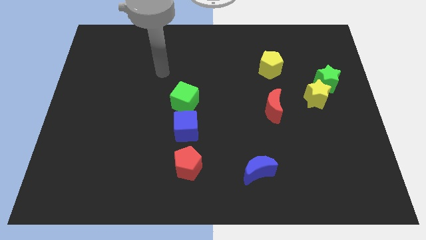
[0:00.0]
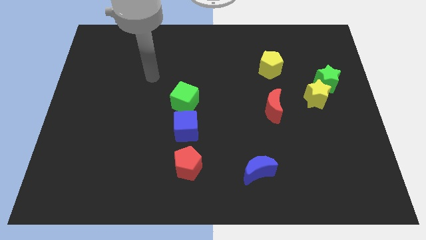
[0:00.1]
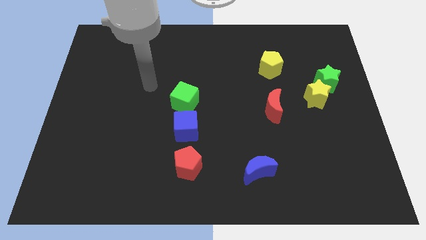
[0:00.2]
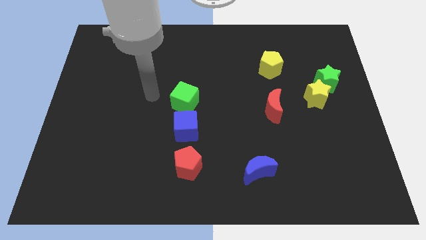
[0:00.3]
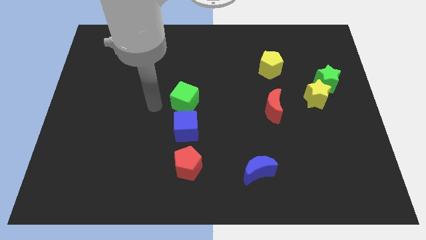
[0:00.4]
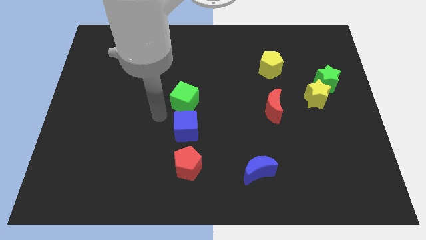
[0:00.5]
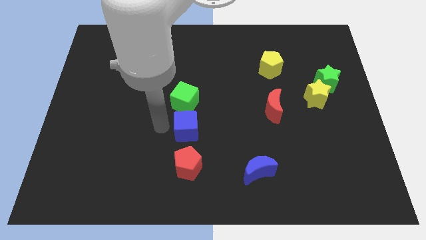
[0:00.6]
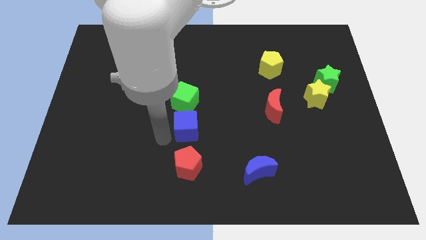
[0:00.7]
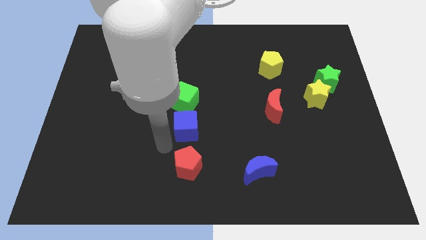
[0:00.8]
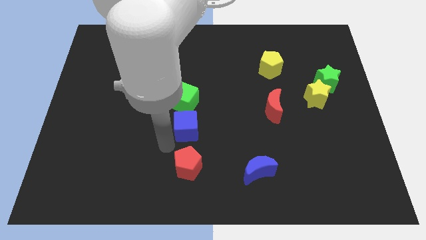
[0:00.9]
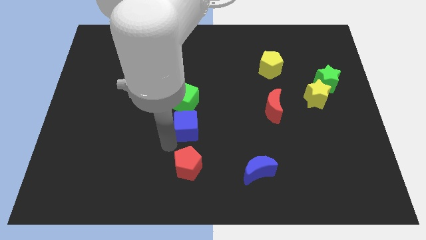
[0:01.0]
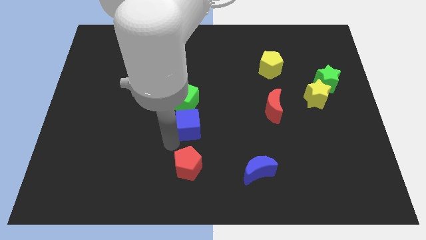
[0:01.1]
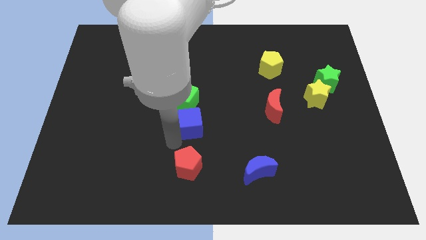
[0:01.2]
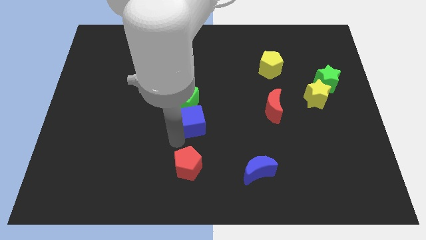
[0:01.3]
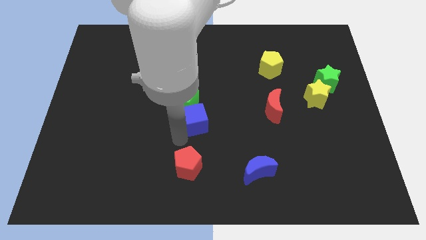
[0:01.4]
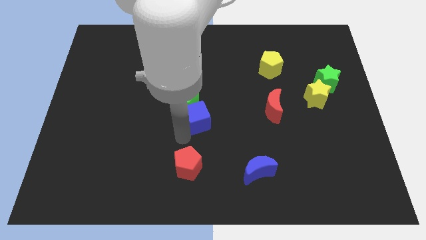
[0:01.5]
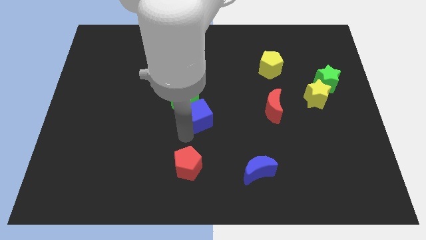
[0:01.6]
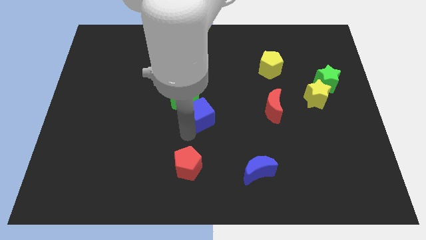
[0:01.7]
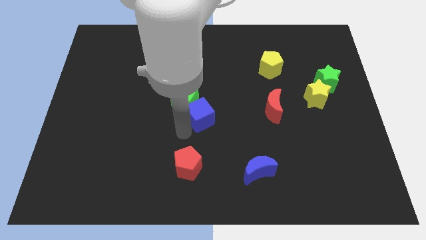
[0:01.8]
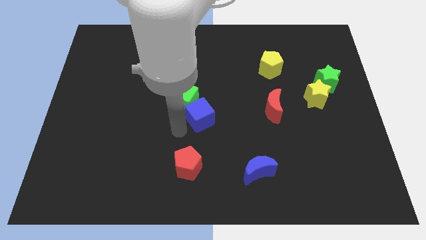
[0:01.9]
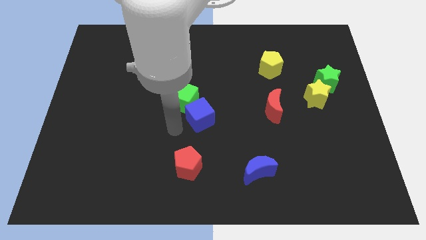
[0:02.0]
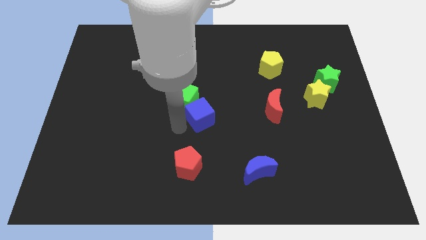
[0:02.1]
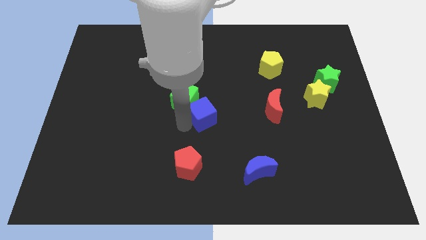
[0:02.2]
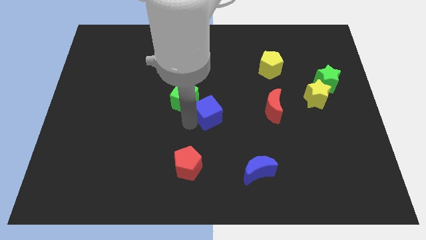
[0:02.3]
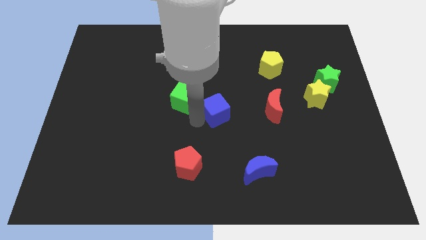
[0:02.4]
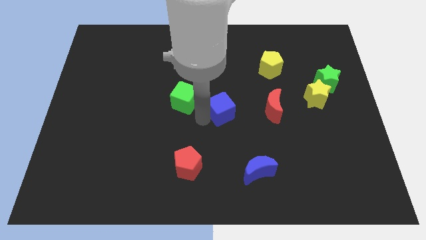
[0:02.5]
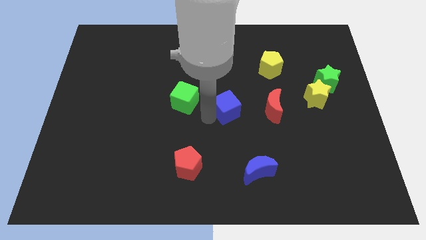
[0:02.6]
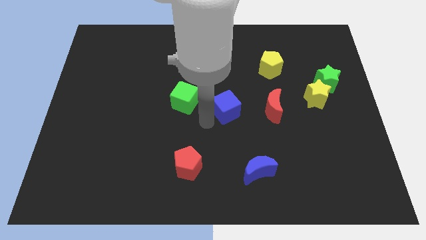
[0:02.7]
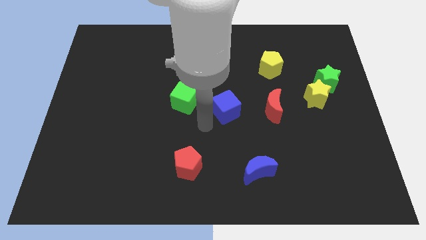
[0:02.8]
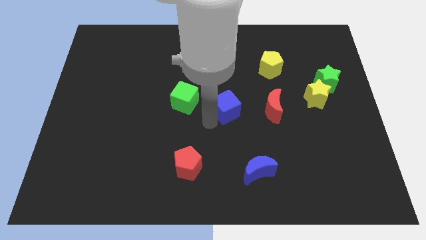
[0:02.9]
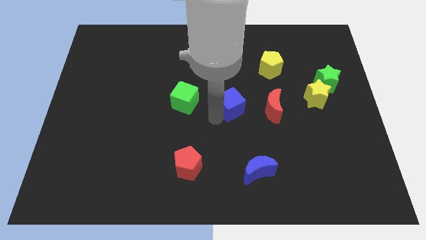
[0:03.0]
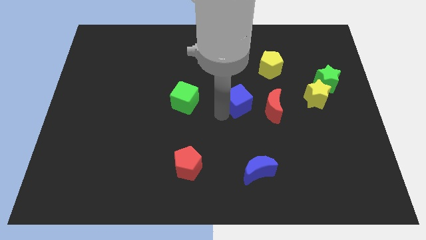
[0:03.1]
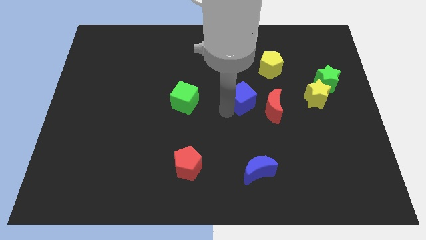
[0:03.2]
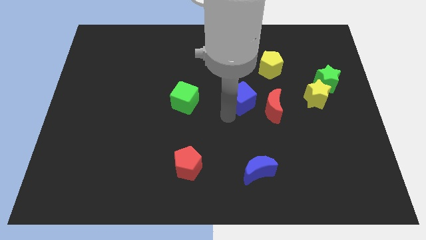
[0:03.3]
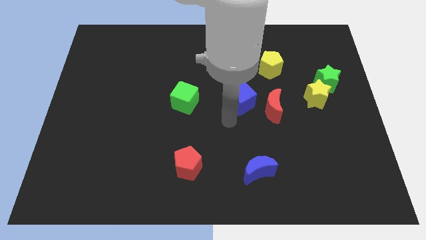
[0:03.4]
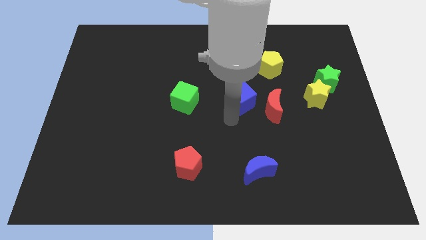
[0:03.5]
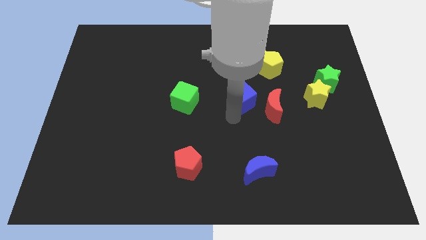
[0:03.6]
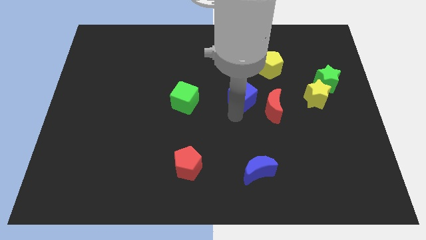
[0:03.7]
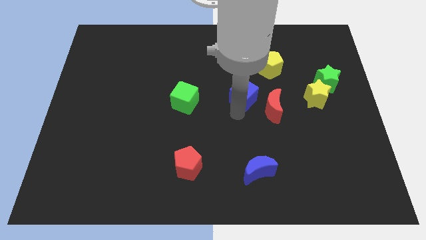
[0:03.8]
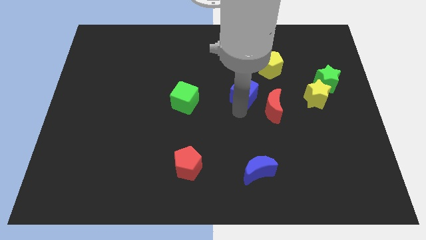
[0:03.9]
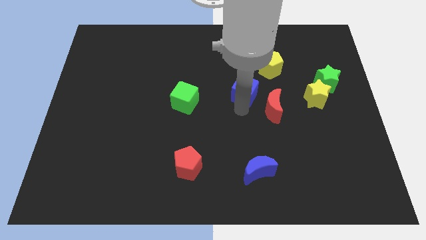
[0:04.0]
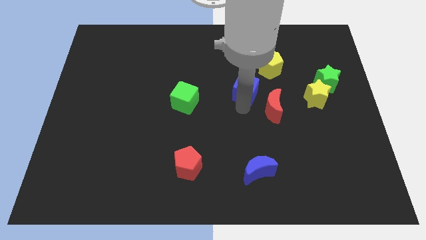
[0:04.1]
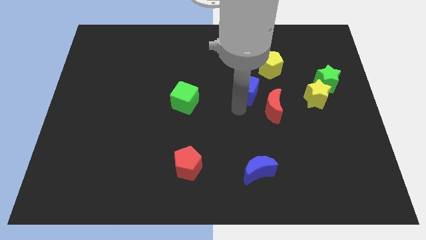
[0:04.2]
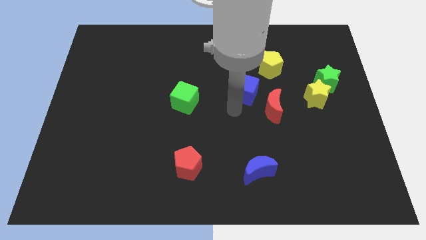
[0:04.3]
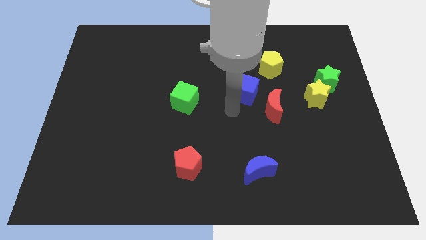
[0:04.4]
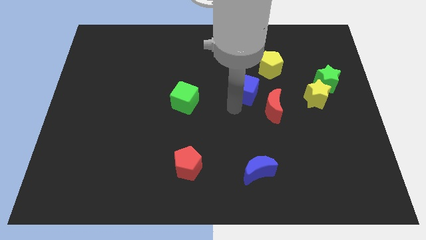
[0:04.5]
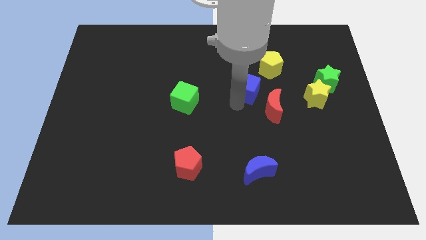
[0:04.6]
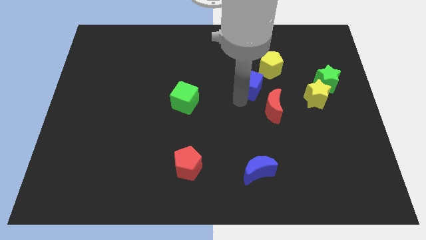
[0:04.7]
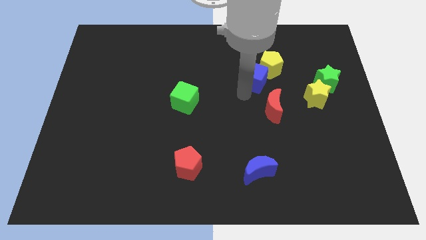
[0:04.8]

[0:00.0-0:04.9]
move the blue cube towards the yellow pentagon

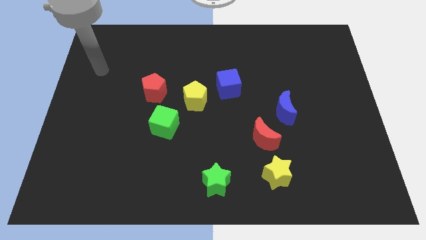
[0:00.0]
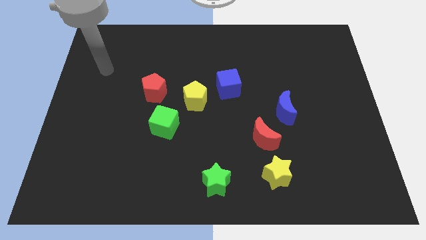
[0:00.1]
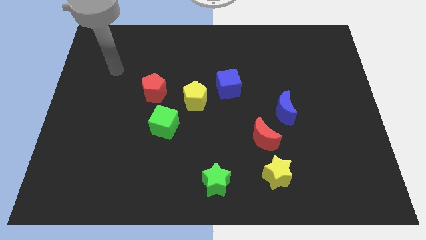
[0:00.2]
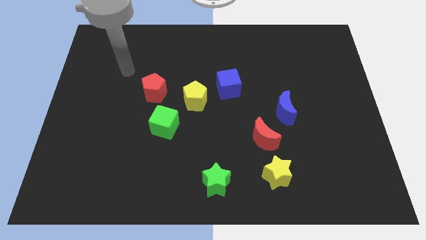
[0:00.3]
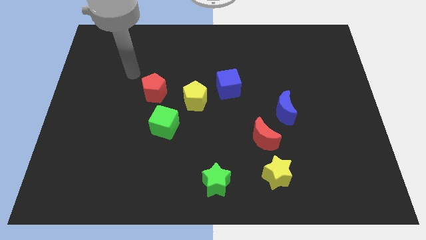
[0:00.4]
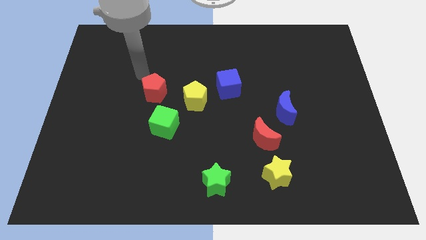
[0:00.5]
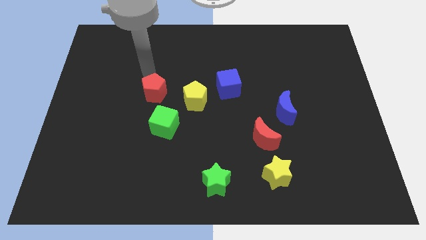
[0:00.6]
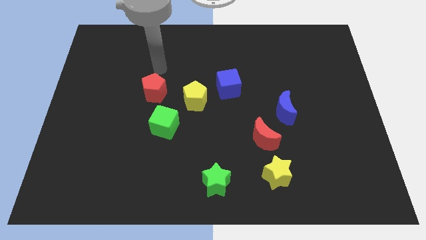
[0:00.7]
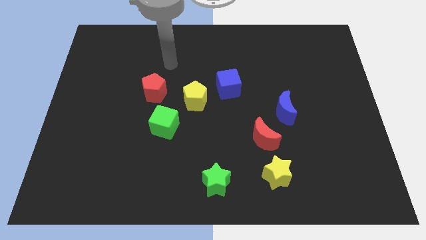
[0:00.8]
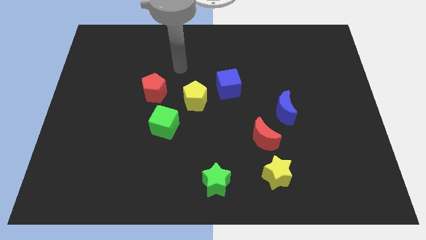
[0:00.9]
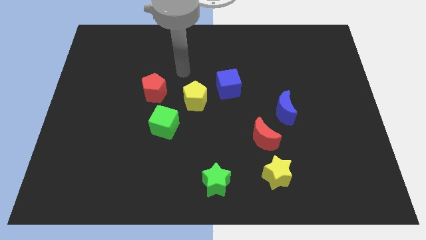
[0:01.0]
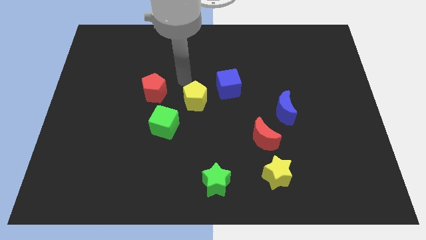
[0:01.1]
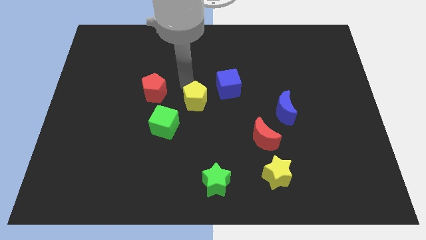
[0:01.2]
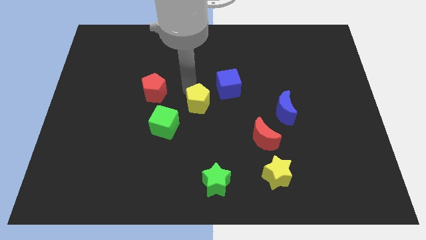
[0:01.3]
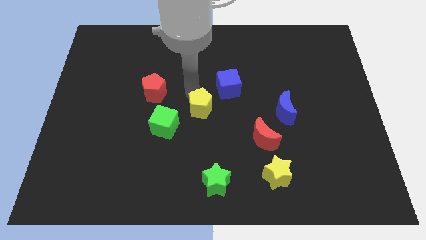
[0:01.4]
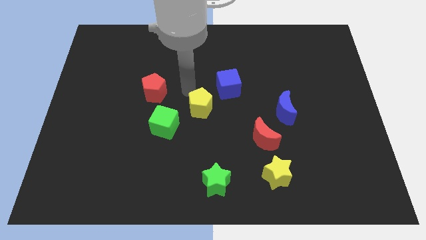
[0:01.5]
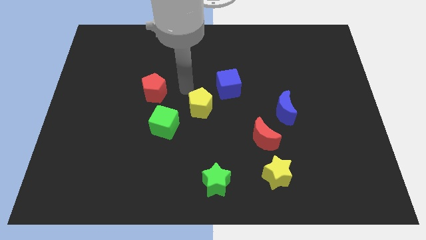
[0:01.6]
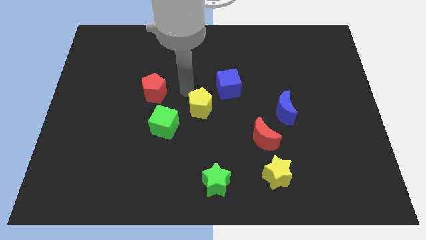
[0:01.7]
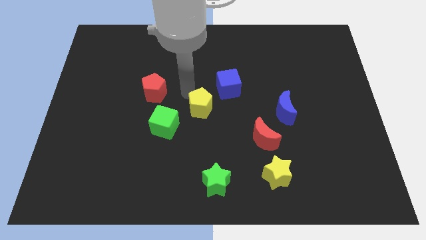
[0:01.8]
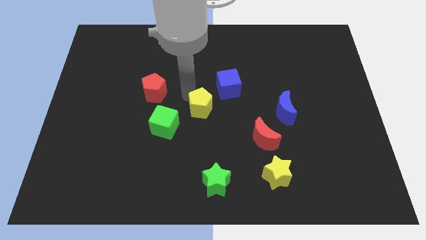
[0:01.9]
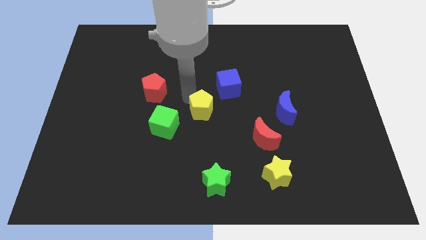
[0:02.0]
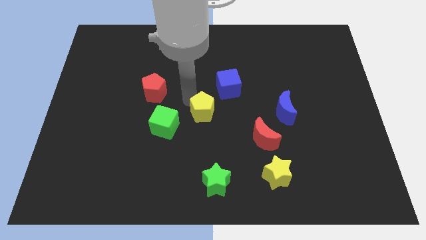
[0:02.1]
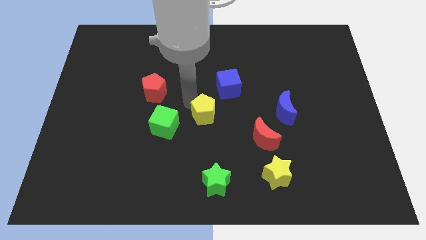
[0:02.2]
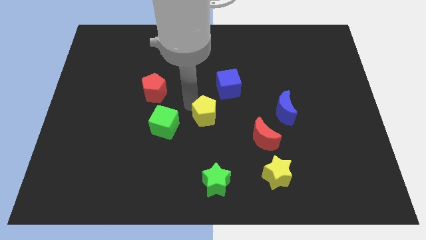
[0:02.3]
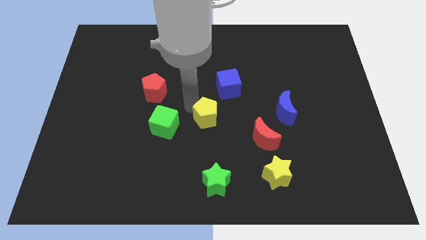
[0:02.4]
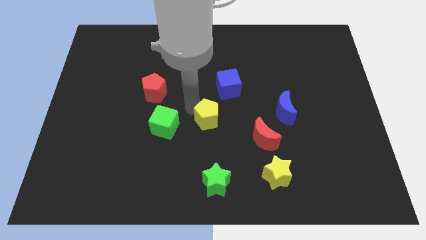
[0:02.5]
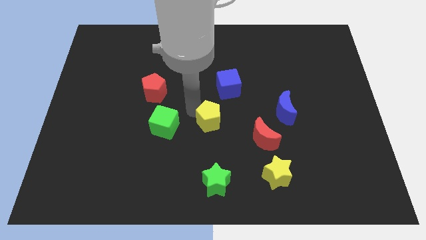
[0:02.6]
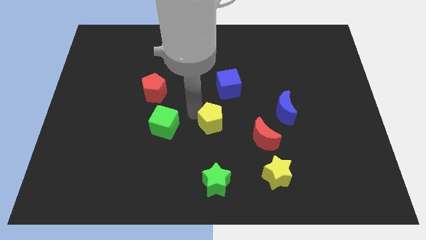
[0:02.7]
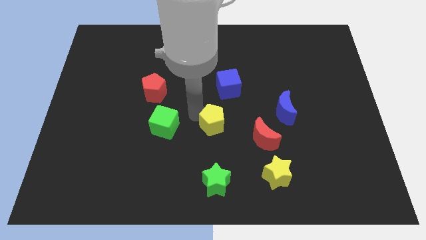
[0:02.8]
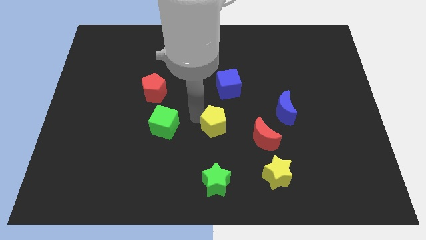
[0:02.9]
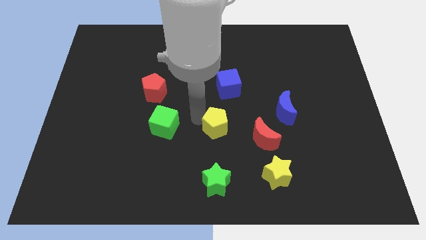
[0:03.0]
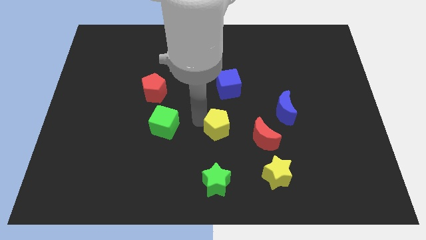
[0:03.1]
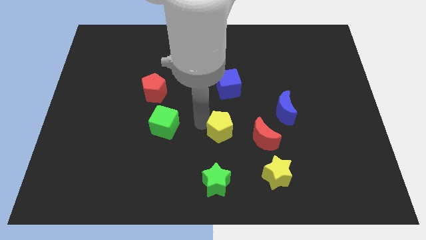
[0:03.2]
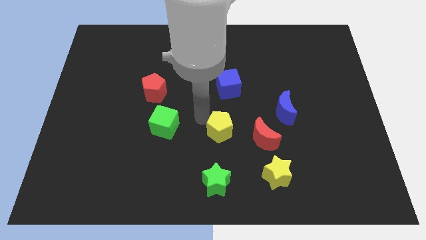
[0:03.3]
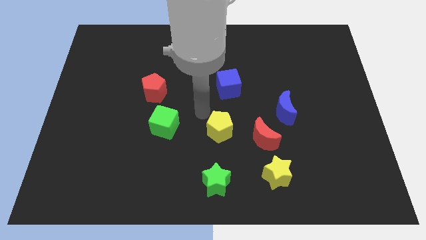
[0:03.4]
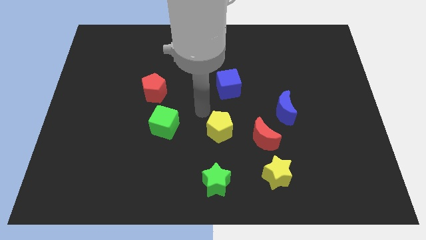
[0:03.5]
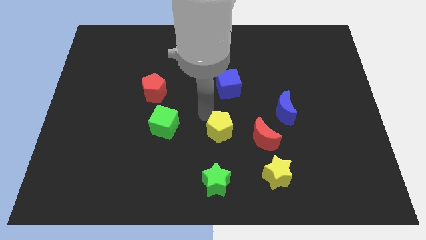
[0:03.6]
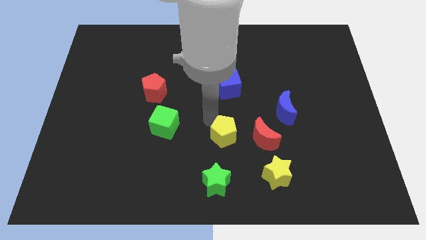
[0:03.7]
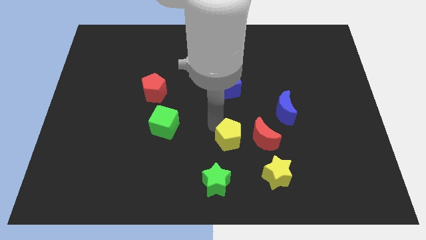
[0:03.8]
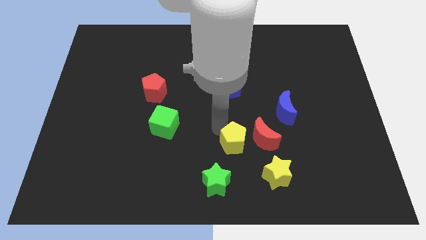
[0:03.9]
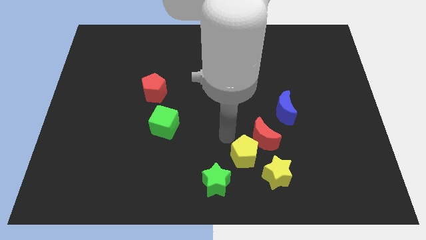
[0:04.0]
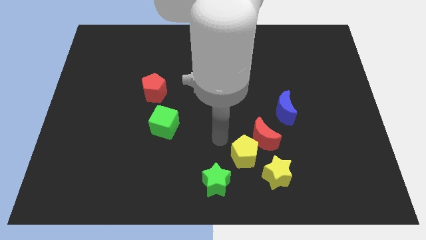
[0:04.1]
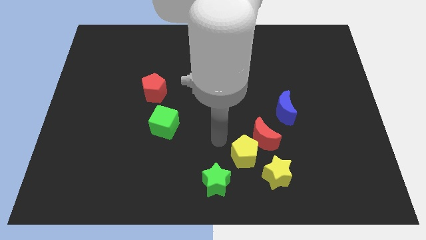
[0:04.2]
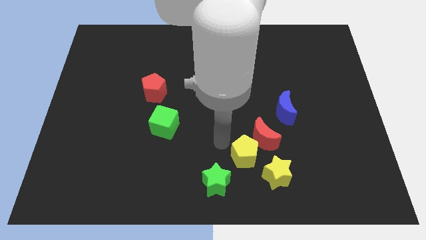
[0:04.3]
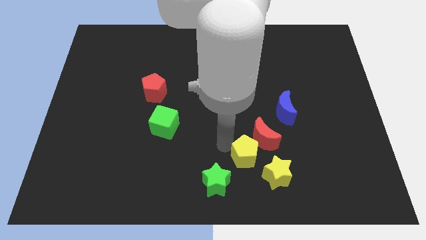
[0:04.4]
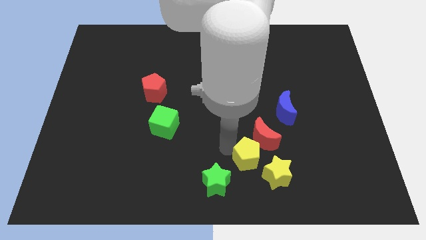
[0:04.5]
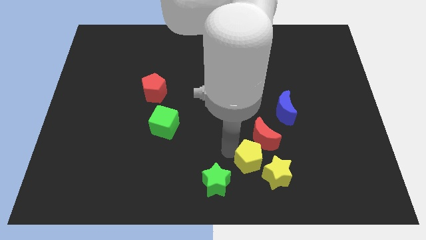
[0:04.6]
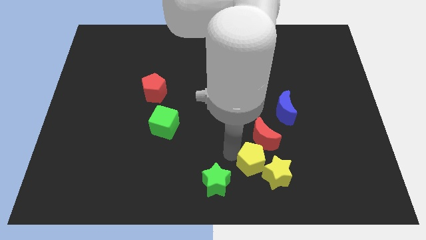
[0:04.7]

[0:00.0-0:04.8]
push the yellow pentagon to the yellow star
